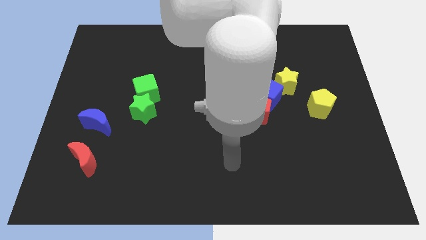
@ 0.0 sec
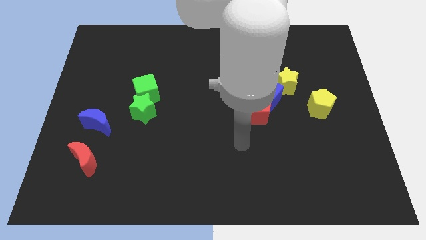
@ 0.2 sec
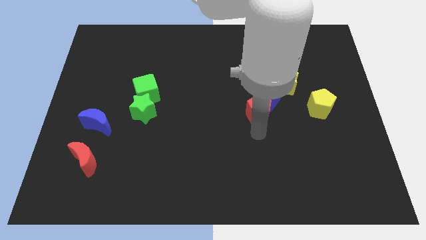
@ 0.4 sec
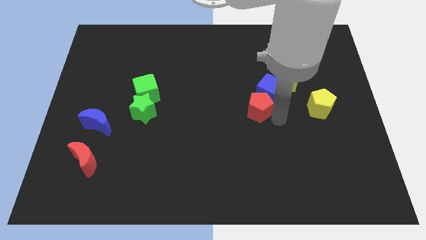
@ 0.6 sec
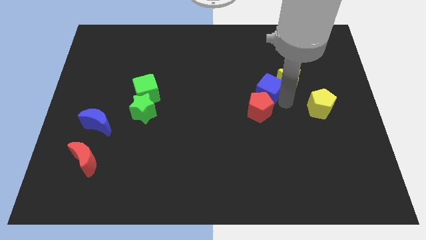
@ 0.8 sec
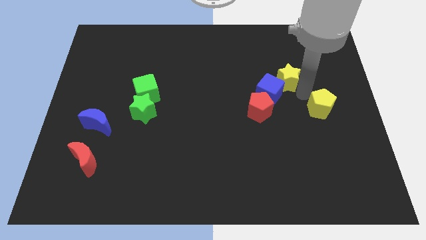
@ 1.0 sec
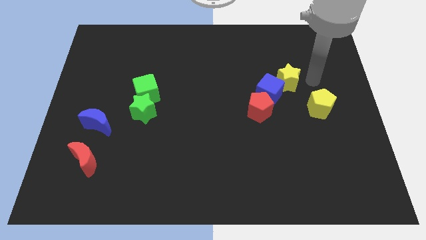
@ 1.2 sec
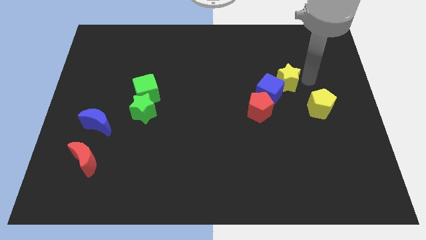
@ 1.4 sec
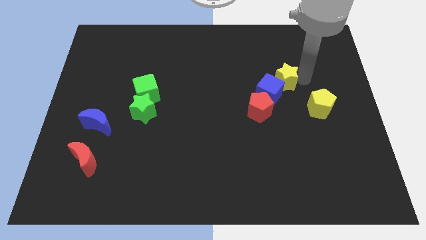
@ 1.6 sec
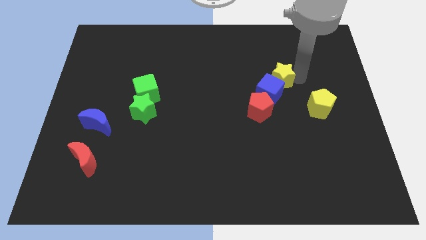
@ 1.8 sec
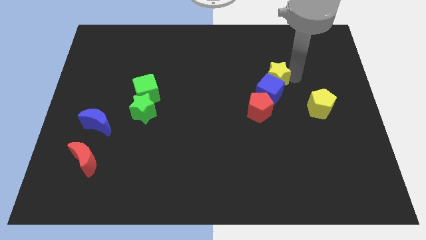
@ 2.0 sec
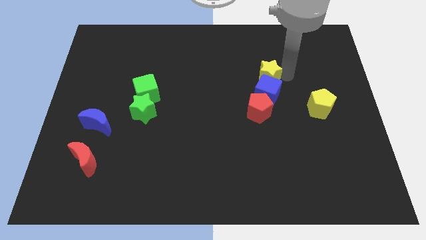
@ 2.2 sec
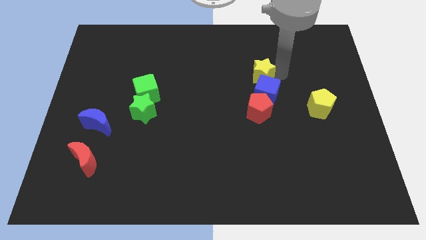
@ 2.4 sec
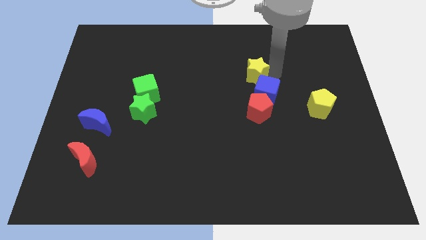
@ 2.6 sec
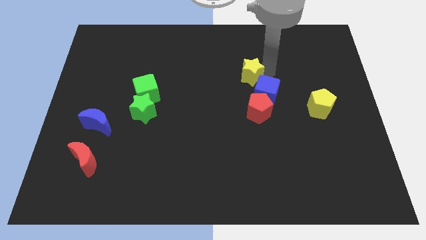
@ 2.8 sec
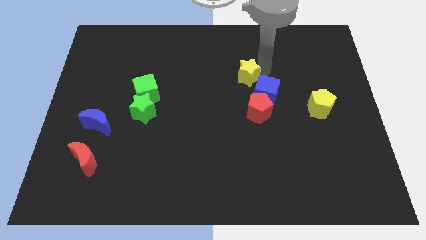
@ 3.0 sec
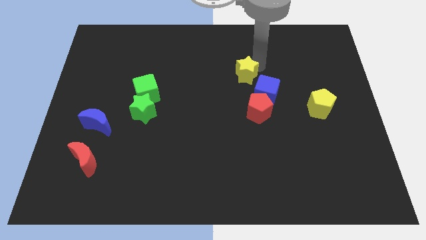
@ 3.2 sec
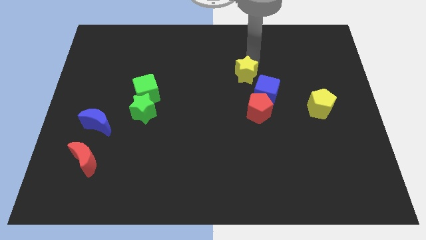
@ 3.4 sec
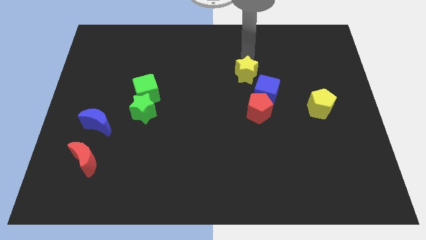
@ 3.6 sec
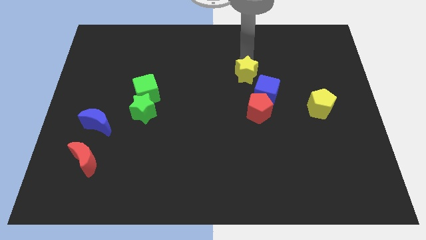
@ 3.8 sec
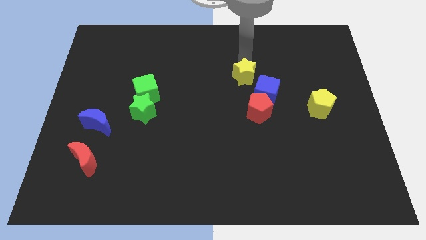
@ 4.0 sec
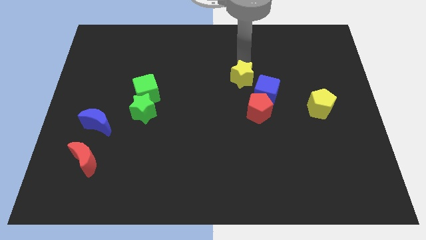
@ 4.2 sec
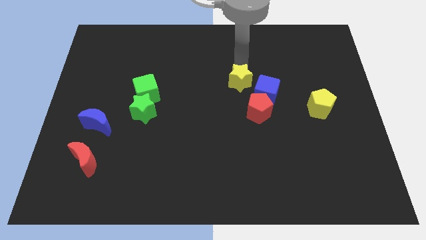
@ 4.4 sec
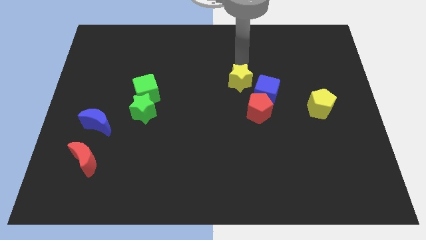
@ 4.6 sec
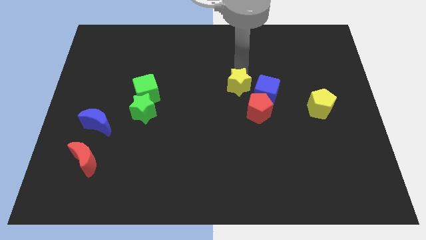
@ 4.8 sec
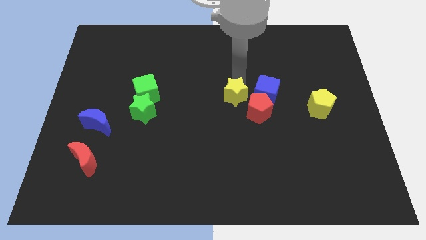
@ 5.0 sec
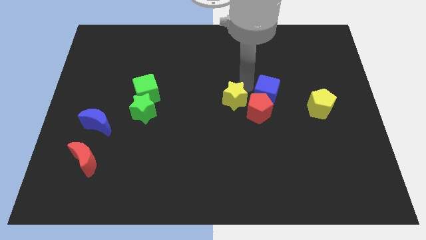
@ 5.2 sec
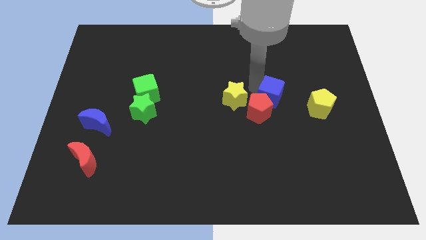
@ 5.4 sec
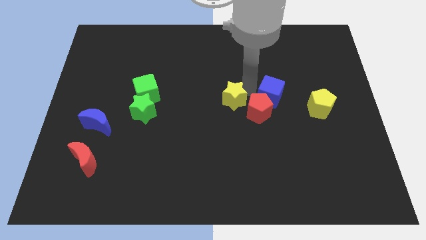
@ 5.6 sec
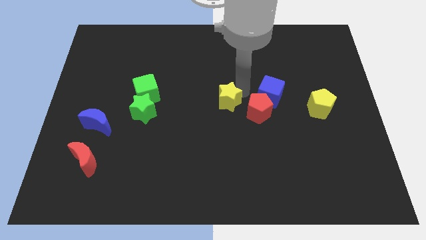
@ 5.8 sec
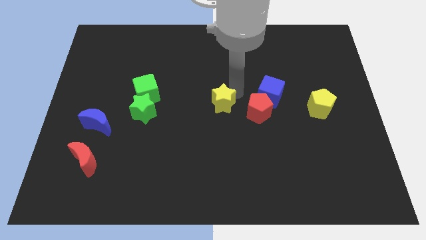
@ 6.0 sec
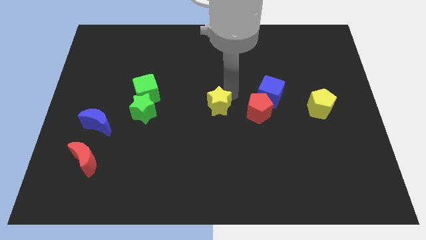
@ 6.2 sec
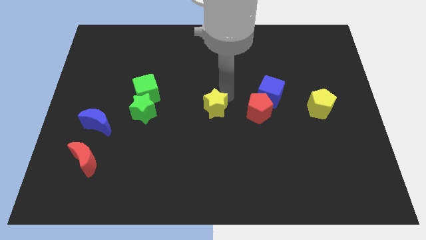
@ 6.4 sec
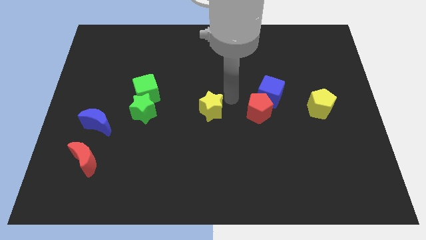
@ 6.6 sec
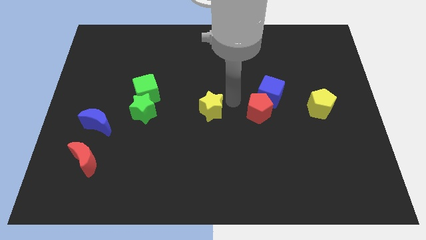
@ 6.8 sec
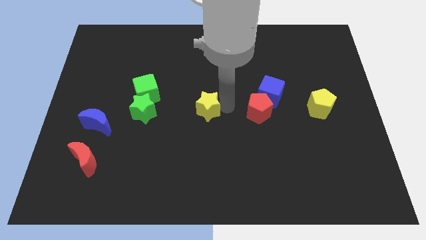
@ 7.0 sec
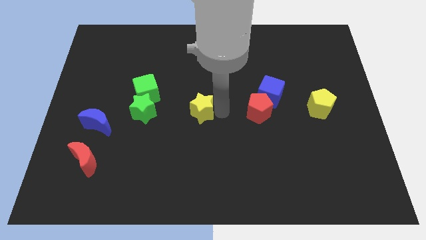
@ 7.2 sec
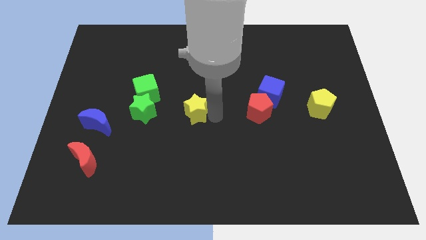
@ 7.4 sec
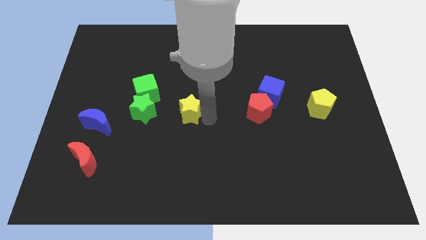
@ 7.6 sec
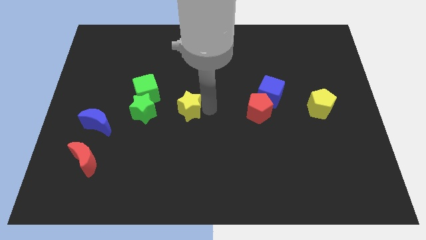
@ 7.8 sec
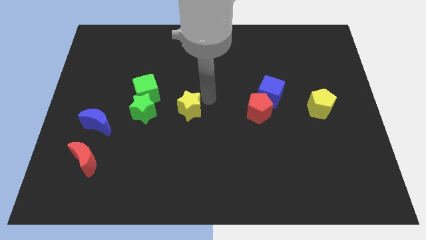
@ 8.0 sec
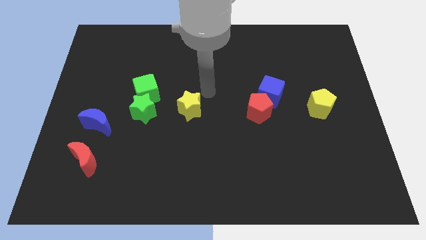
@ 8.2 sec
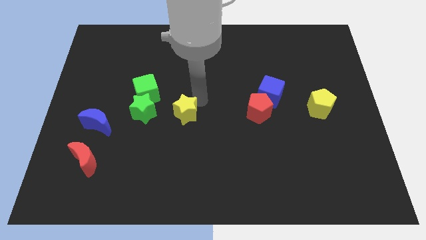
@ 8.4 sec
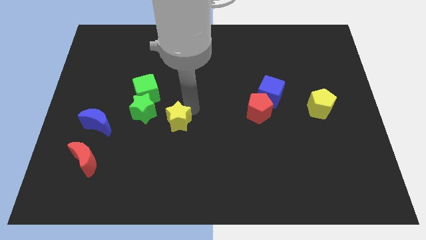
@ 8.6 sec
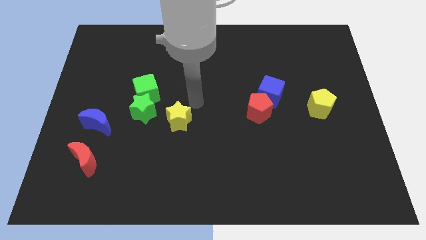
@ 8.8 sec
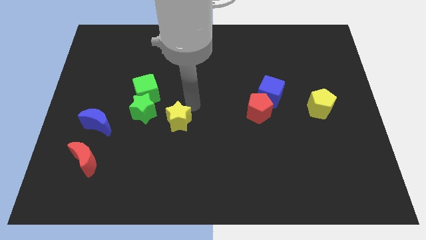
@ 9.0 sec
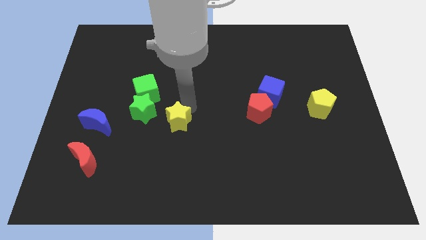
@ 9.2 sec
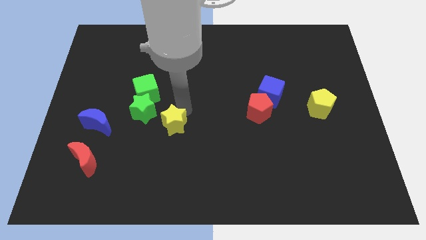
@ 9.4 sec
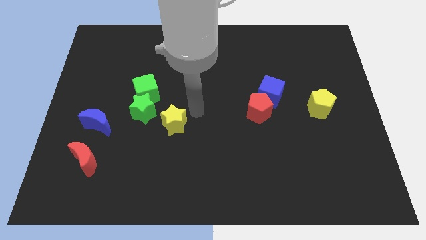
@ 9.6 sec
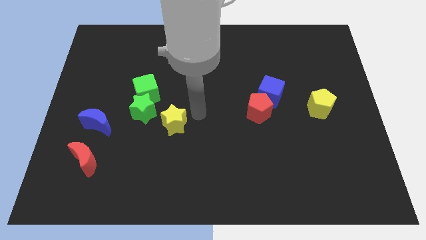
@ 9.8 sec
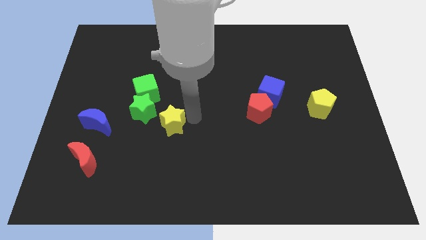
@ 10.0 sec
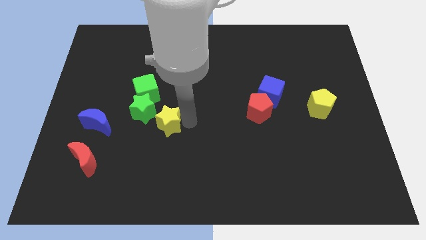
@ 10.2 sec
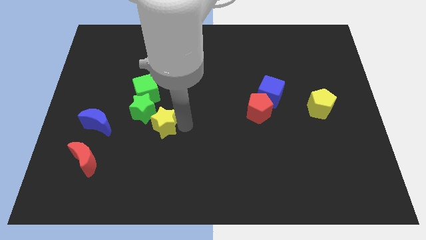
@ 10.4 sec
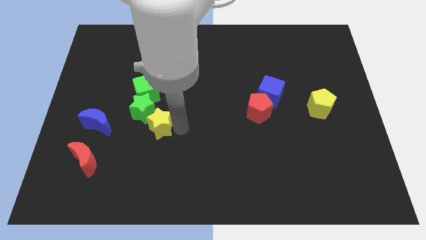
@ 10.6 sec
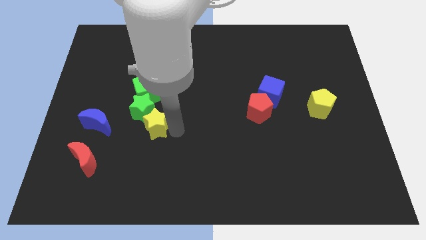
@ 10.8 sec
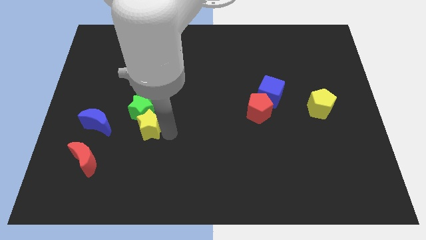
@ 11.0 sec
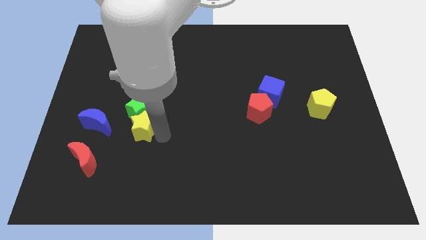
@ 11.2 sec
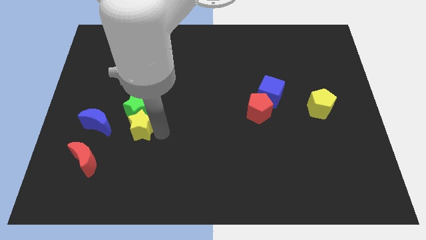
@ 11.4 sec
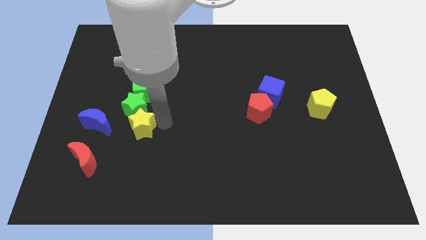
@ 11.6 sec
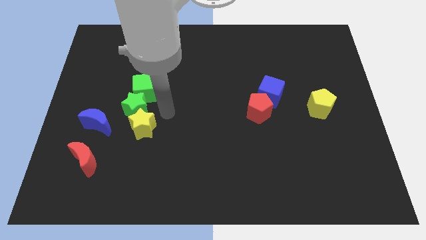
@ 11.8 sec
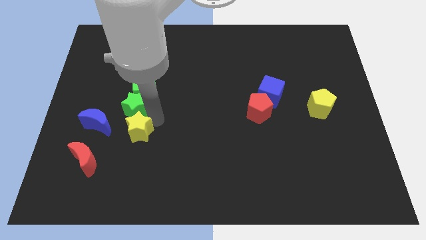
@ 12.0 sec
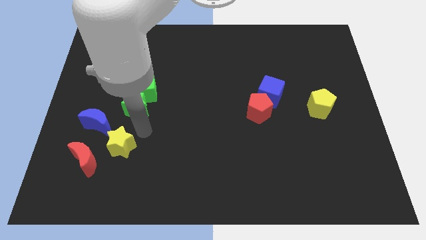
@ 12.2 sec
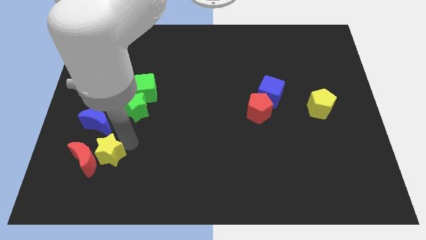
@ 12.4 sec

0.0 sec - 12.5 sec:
put the yellow star towards the red moon

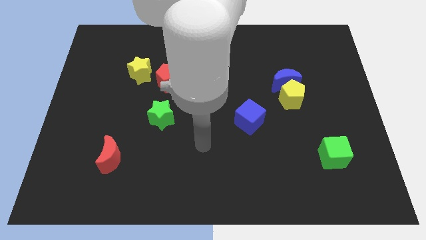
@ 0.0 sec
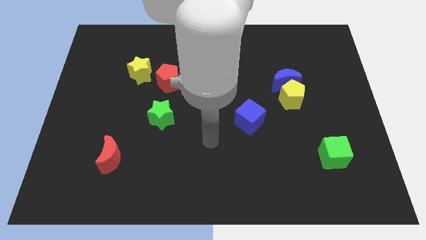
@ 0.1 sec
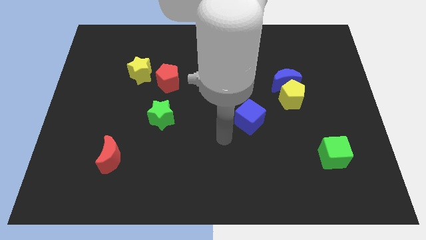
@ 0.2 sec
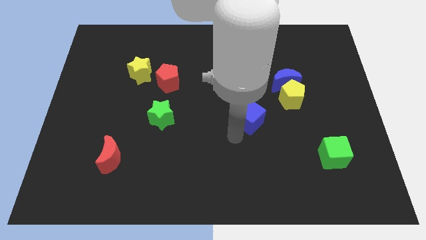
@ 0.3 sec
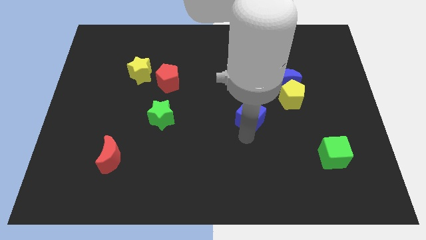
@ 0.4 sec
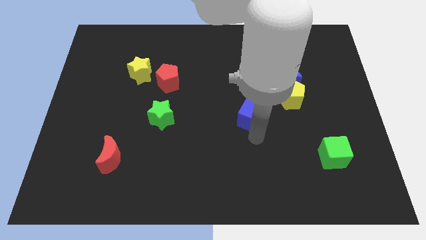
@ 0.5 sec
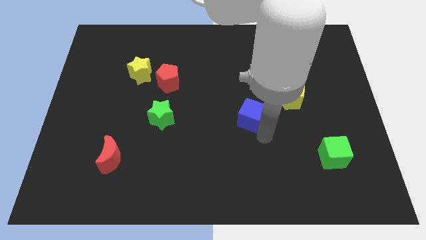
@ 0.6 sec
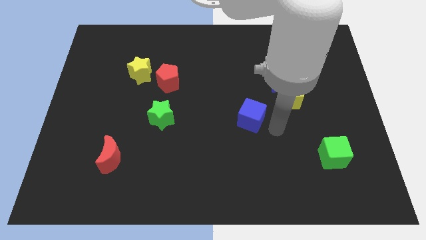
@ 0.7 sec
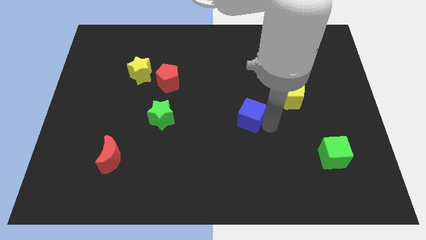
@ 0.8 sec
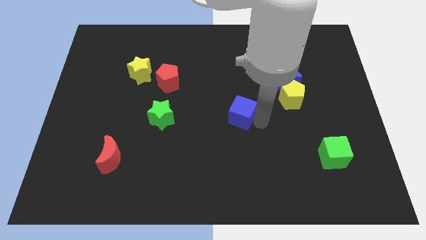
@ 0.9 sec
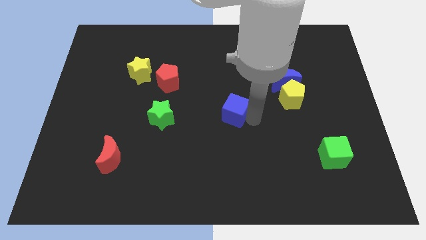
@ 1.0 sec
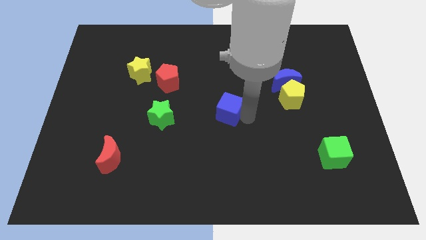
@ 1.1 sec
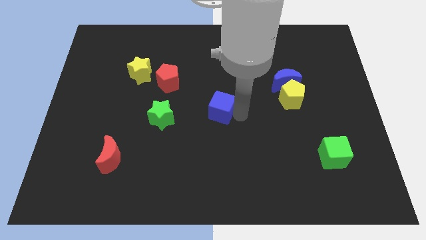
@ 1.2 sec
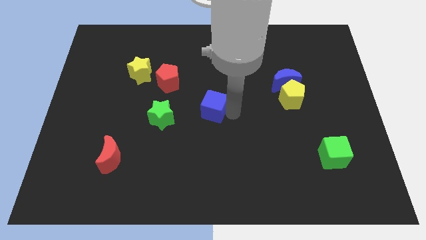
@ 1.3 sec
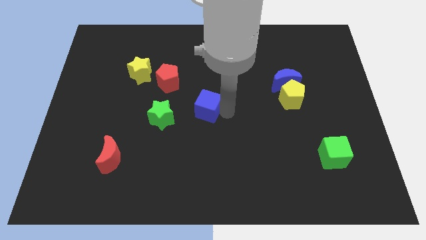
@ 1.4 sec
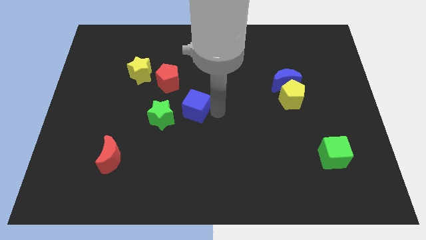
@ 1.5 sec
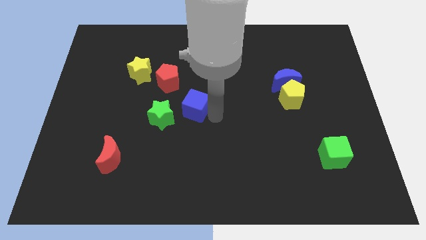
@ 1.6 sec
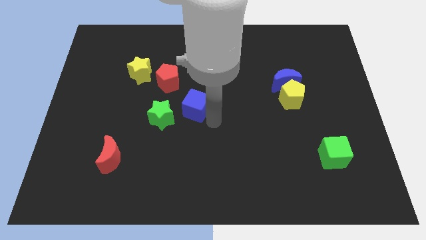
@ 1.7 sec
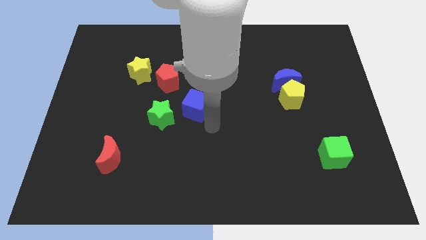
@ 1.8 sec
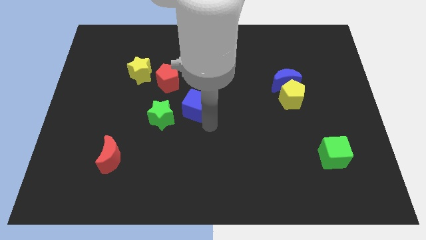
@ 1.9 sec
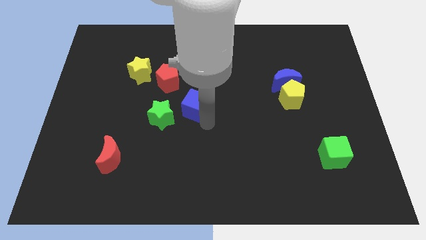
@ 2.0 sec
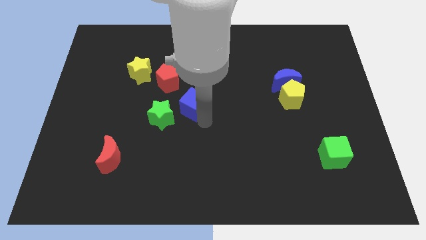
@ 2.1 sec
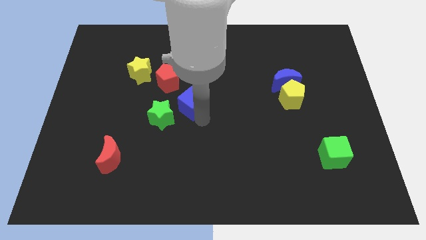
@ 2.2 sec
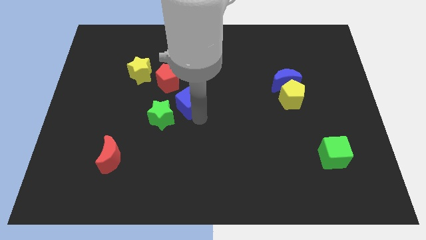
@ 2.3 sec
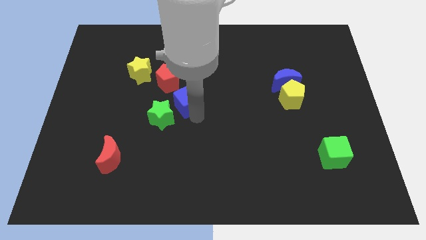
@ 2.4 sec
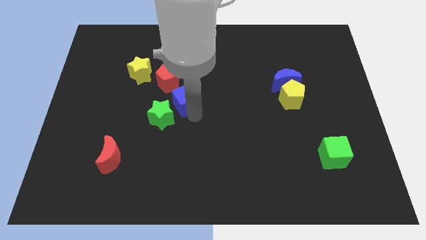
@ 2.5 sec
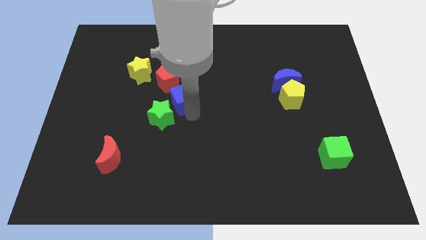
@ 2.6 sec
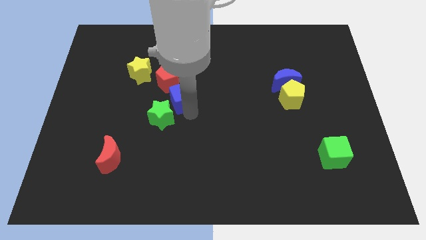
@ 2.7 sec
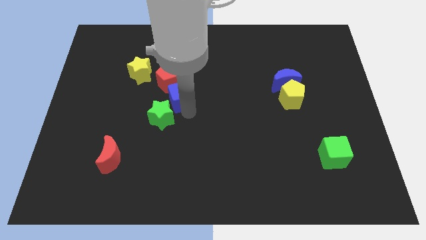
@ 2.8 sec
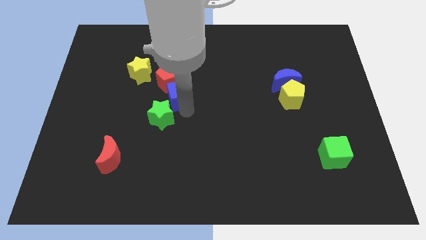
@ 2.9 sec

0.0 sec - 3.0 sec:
move the blue cube towards the red pentagon
